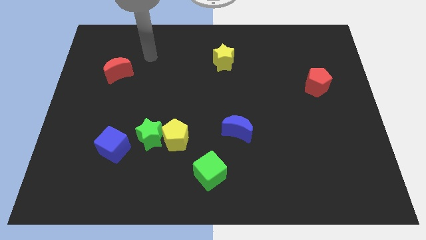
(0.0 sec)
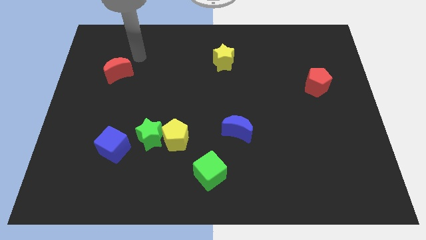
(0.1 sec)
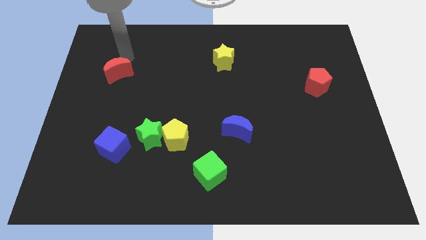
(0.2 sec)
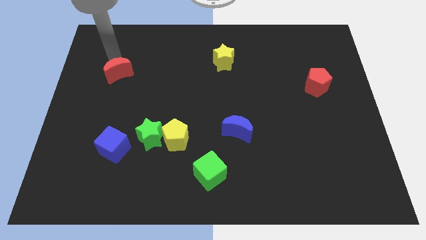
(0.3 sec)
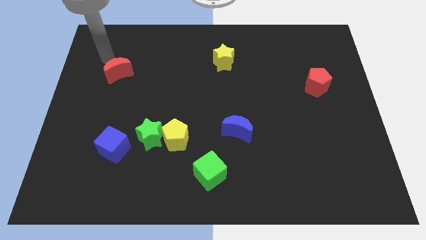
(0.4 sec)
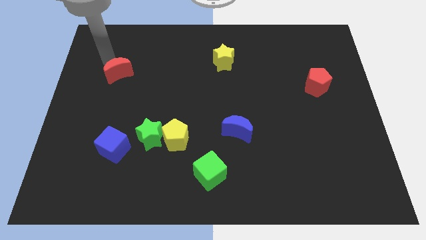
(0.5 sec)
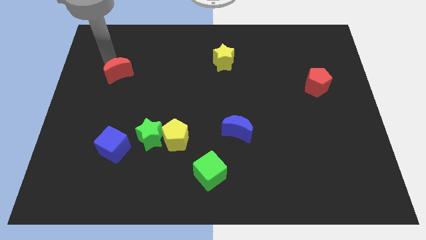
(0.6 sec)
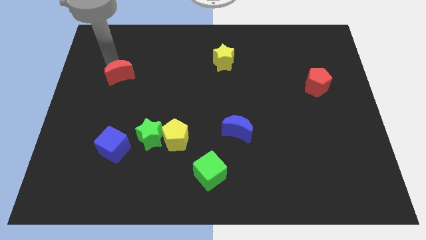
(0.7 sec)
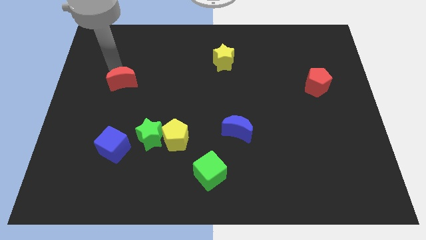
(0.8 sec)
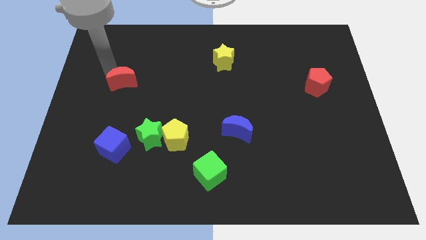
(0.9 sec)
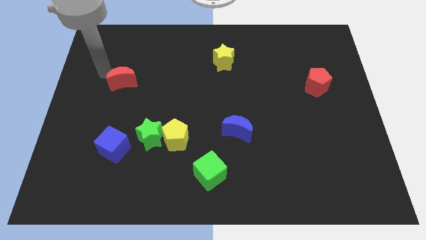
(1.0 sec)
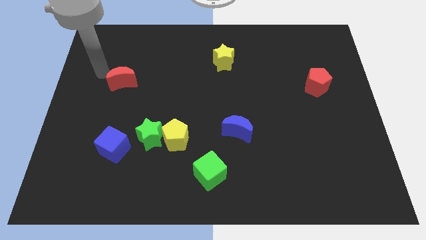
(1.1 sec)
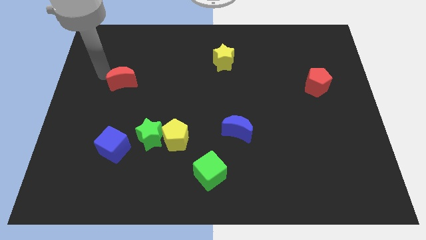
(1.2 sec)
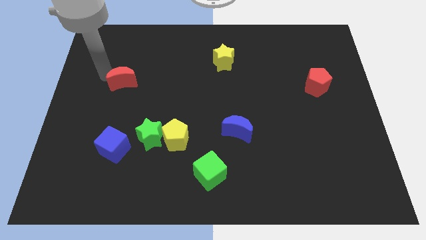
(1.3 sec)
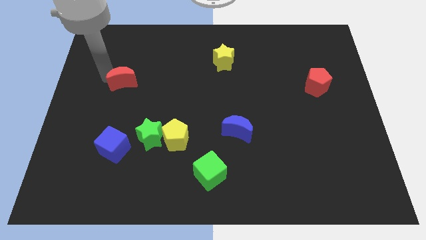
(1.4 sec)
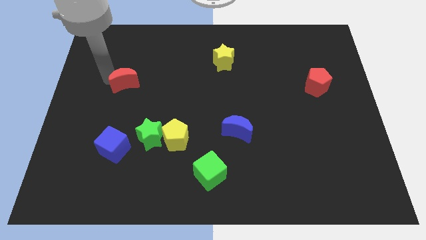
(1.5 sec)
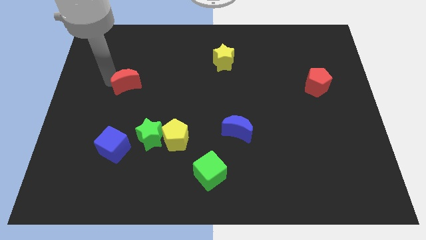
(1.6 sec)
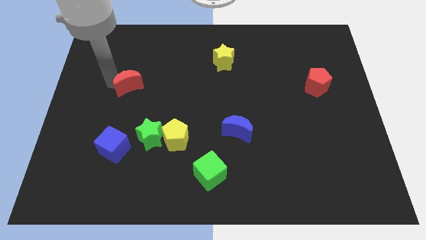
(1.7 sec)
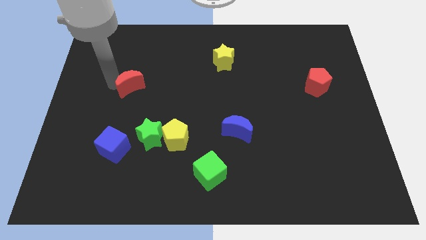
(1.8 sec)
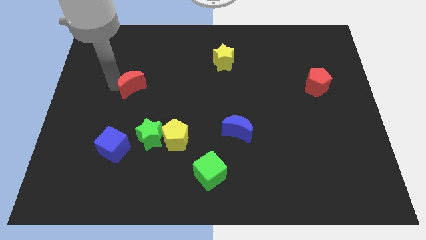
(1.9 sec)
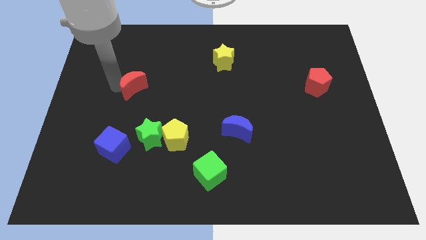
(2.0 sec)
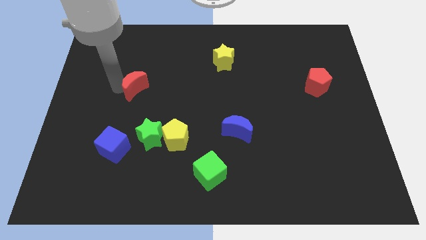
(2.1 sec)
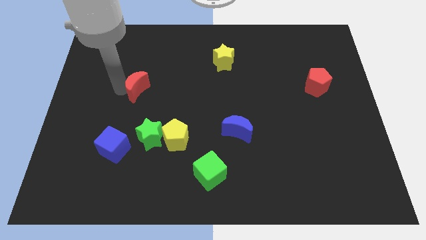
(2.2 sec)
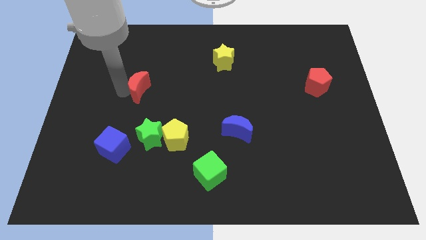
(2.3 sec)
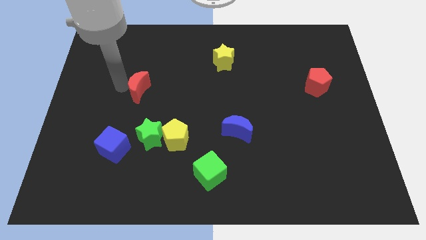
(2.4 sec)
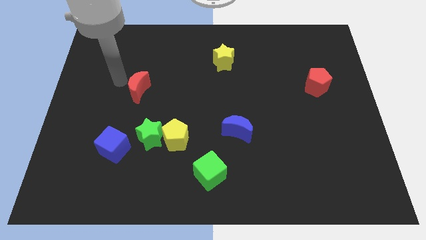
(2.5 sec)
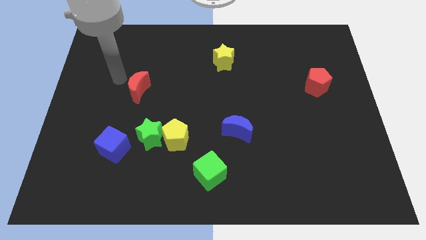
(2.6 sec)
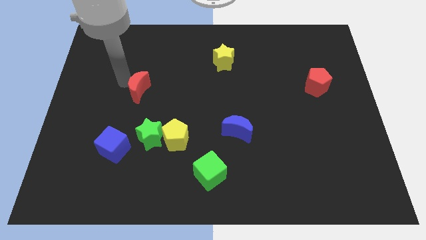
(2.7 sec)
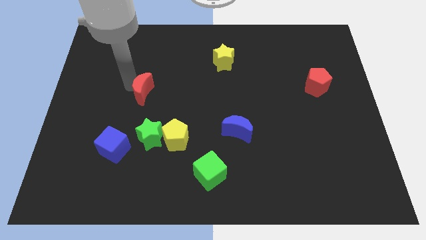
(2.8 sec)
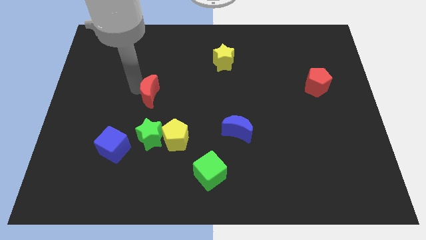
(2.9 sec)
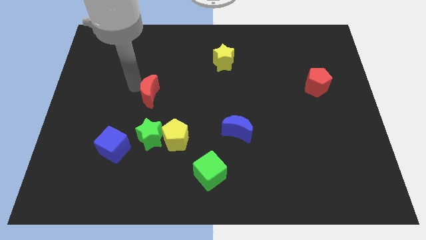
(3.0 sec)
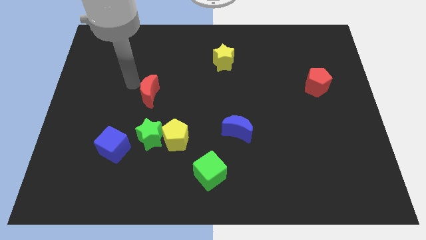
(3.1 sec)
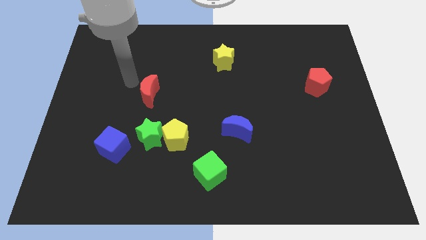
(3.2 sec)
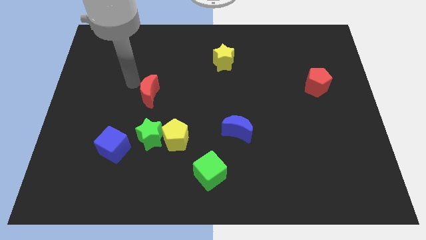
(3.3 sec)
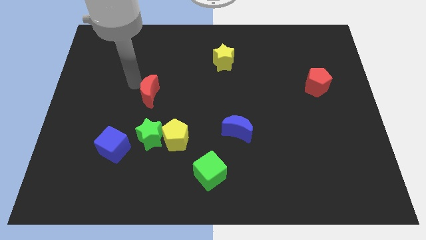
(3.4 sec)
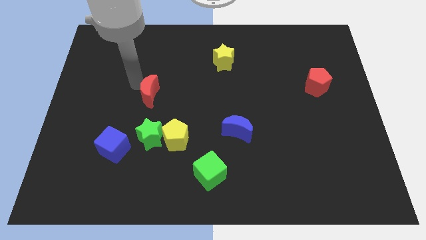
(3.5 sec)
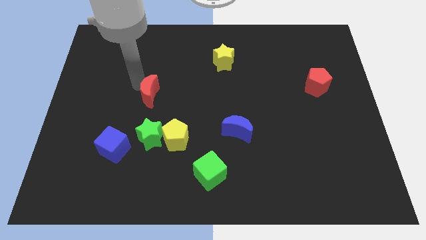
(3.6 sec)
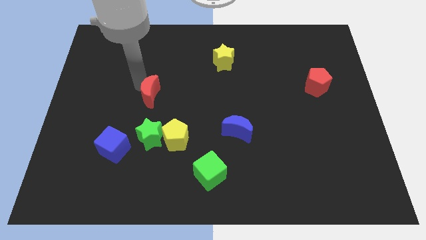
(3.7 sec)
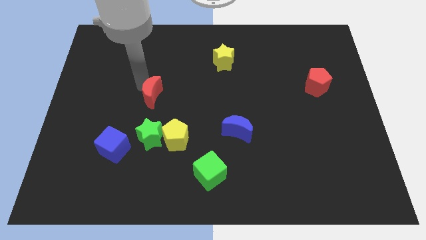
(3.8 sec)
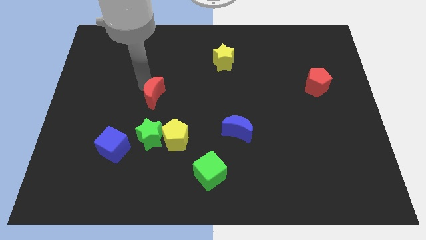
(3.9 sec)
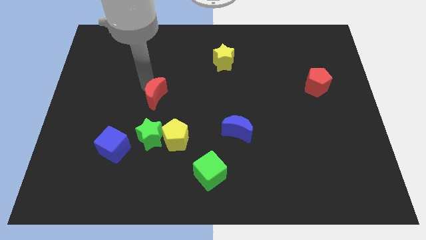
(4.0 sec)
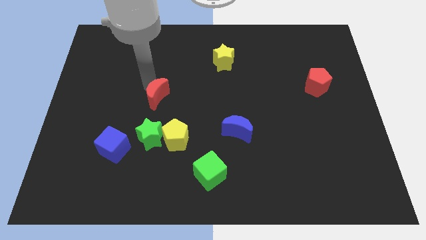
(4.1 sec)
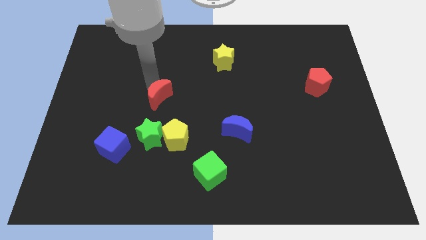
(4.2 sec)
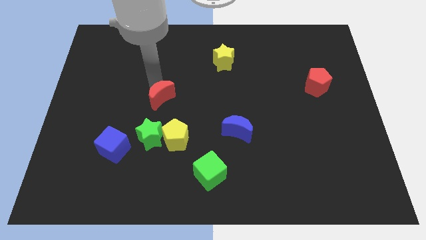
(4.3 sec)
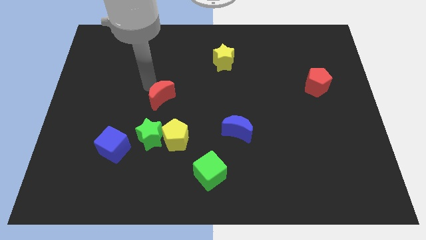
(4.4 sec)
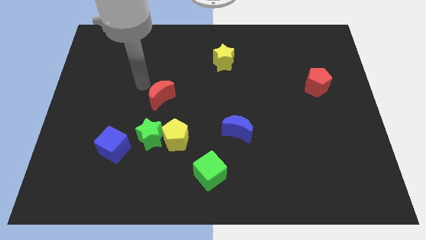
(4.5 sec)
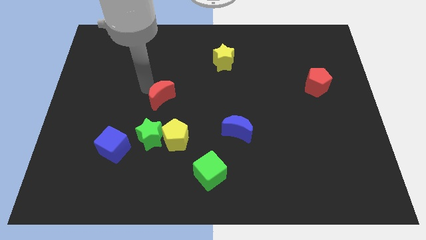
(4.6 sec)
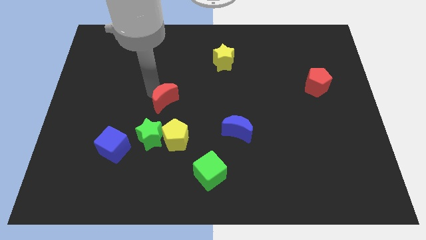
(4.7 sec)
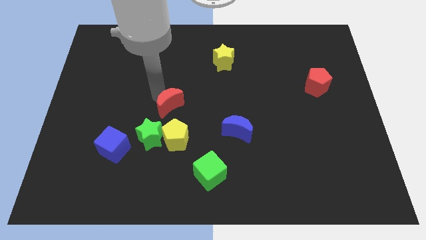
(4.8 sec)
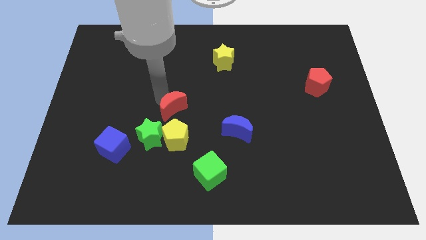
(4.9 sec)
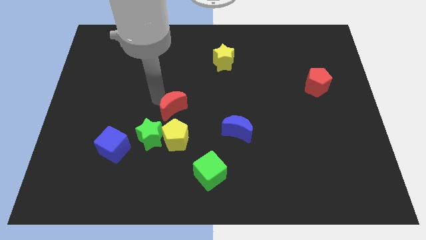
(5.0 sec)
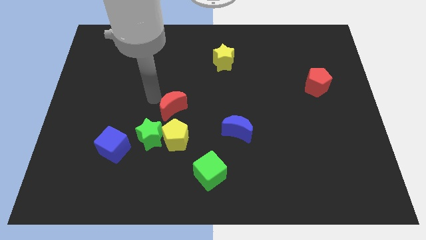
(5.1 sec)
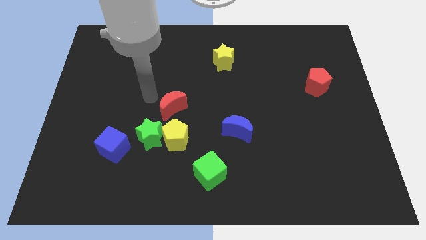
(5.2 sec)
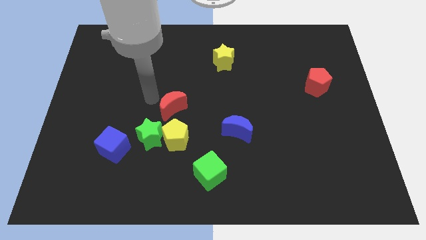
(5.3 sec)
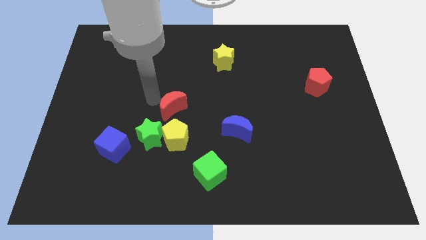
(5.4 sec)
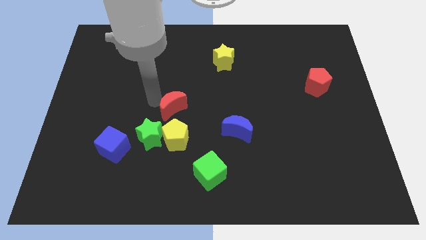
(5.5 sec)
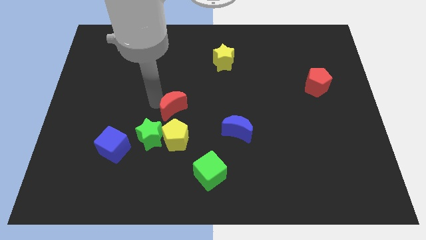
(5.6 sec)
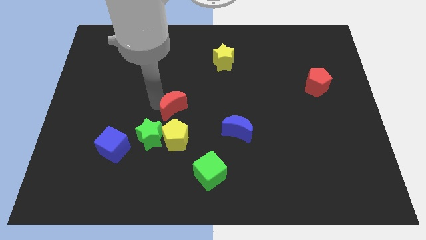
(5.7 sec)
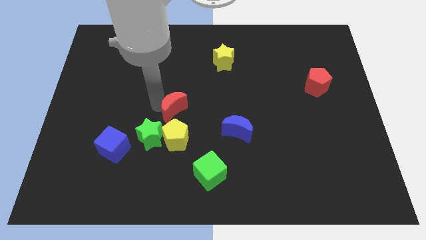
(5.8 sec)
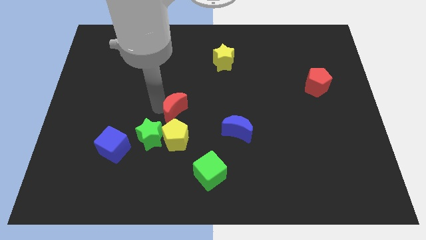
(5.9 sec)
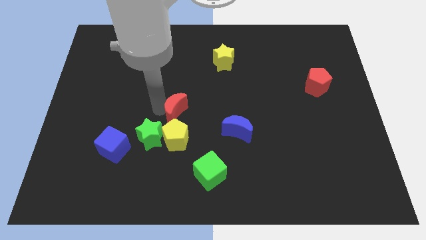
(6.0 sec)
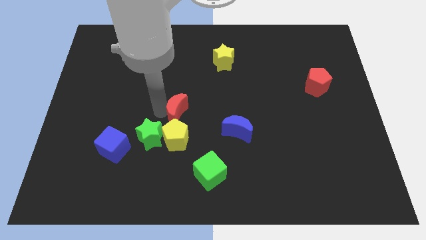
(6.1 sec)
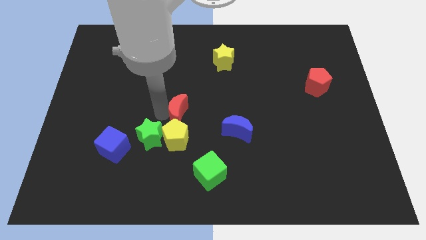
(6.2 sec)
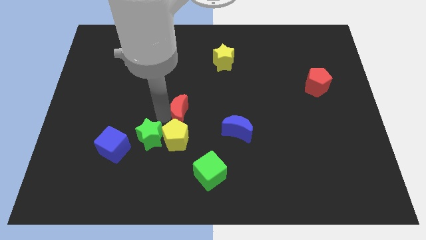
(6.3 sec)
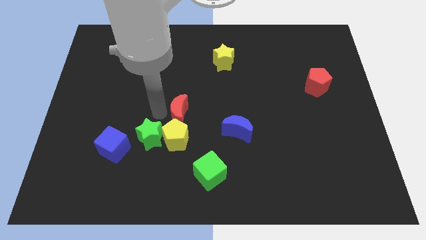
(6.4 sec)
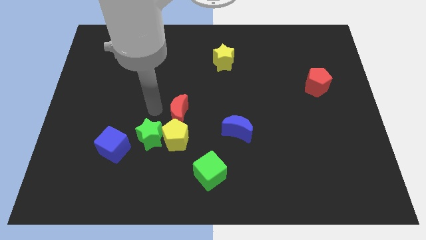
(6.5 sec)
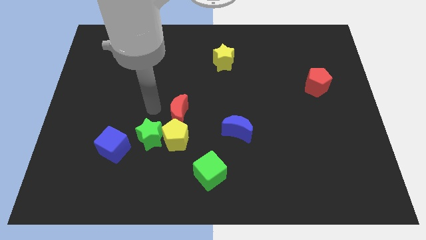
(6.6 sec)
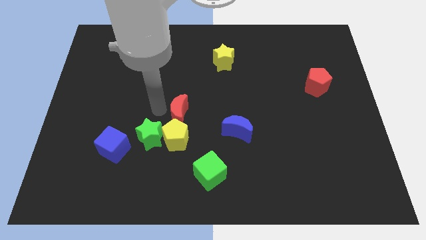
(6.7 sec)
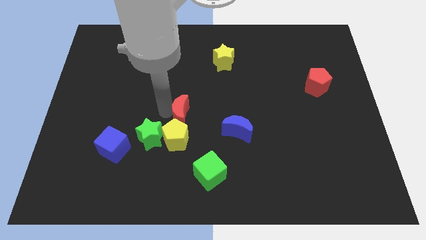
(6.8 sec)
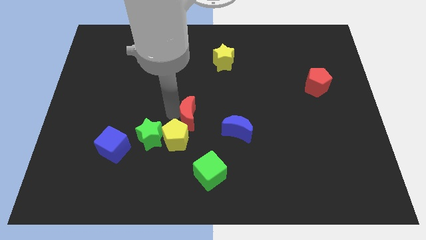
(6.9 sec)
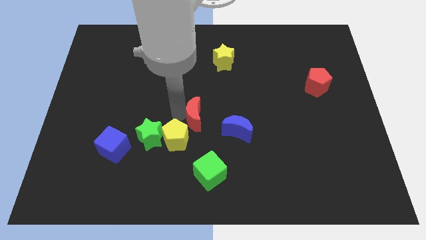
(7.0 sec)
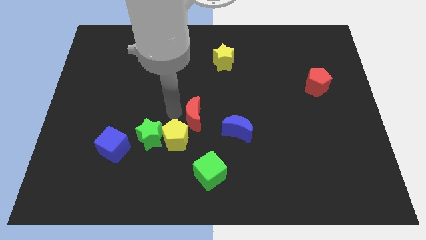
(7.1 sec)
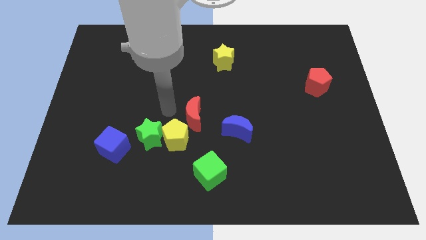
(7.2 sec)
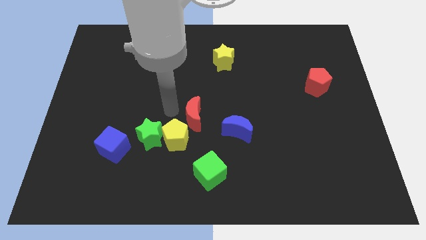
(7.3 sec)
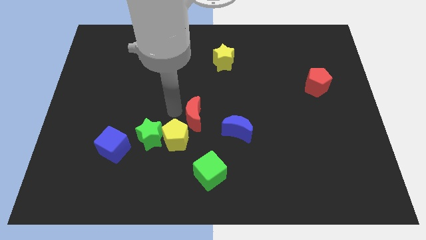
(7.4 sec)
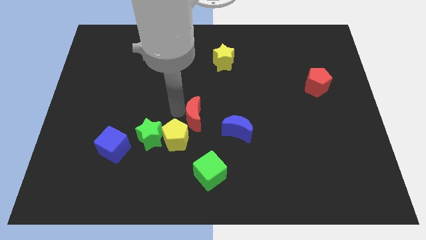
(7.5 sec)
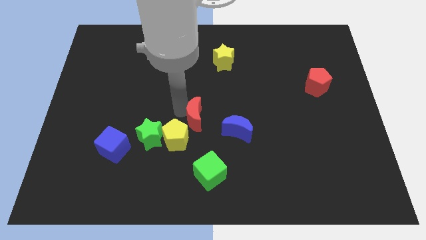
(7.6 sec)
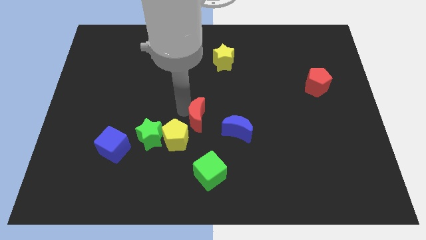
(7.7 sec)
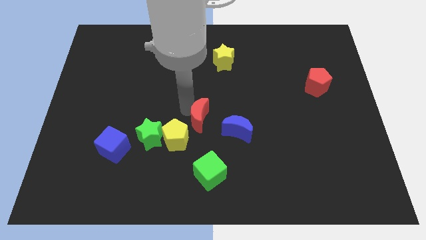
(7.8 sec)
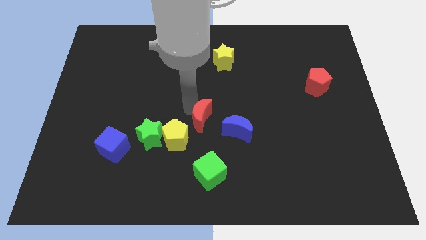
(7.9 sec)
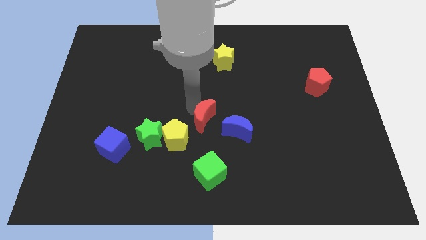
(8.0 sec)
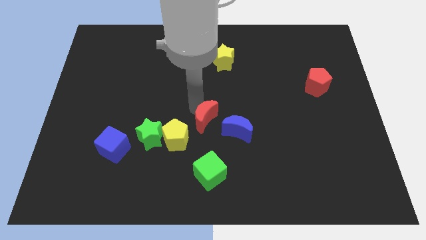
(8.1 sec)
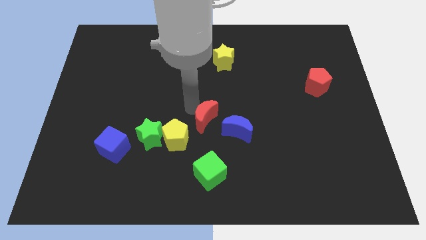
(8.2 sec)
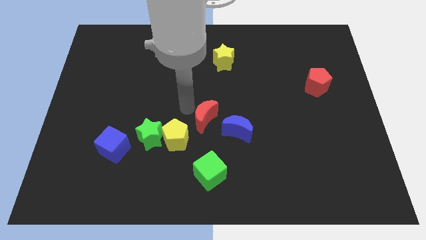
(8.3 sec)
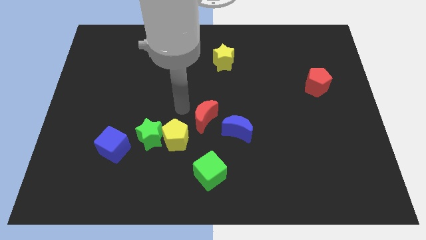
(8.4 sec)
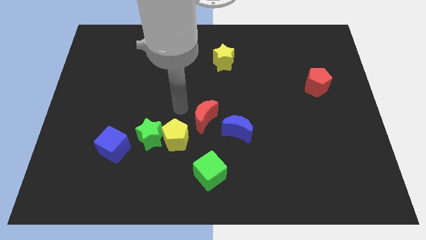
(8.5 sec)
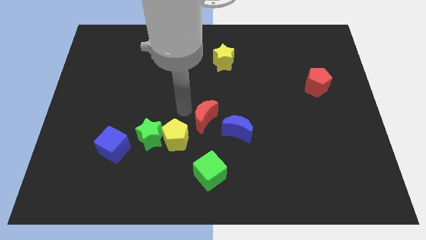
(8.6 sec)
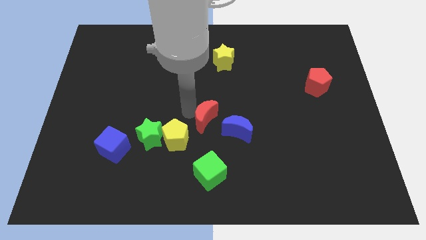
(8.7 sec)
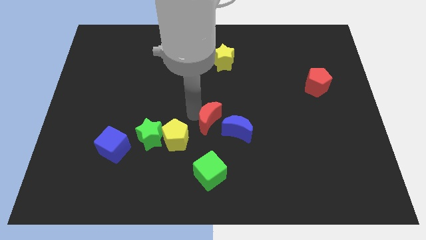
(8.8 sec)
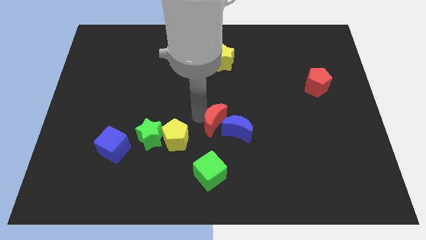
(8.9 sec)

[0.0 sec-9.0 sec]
slide the red moon close to the blue moon
